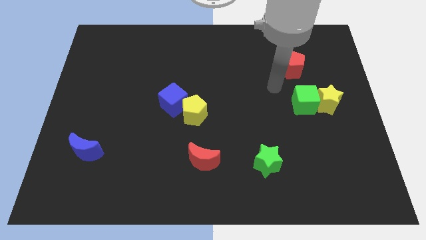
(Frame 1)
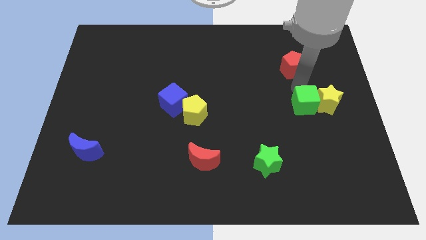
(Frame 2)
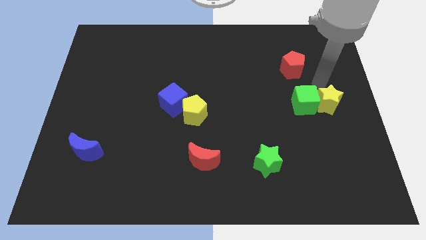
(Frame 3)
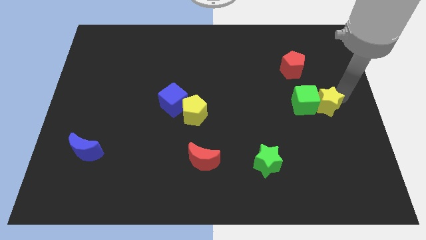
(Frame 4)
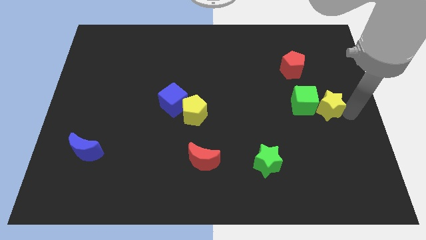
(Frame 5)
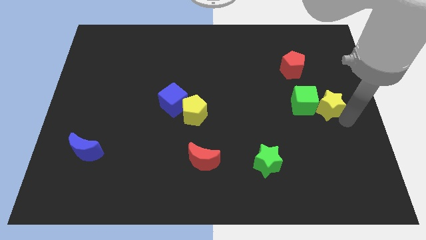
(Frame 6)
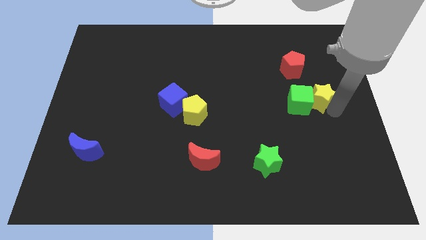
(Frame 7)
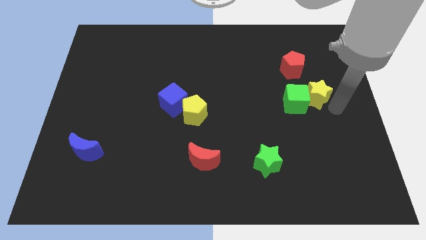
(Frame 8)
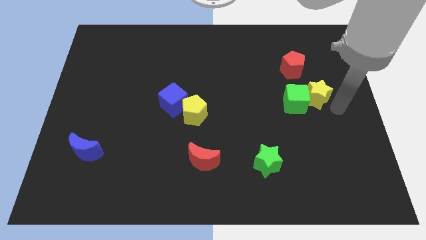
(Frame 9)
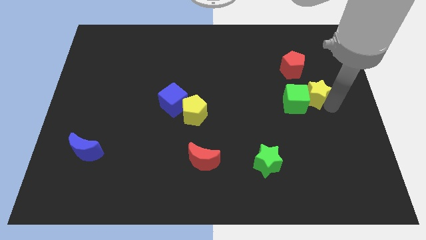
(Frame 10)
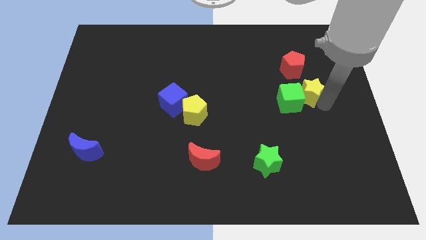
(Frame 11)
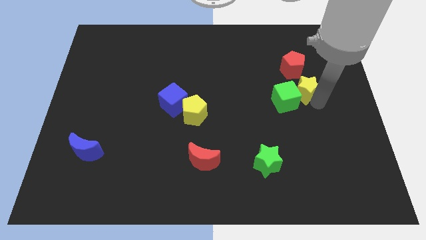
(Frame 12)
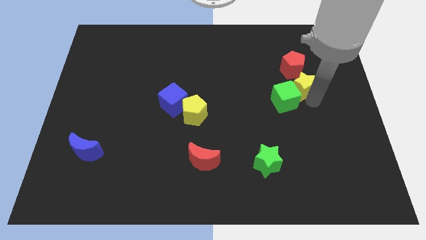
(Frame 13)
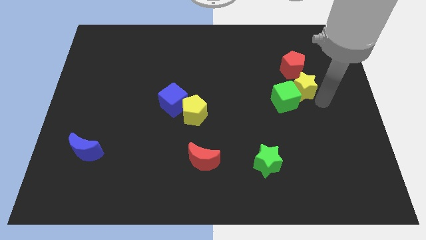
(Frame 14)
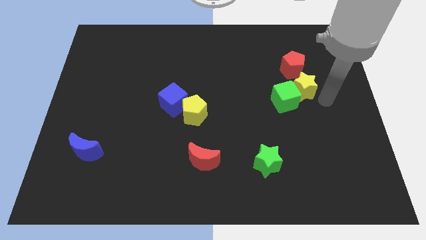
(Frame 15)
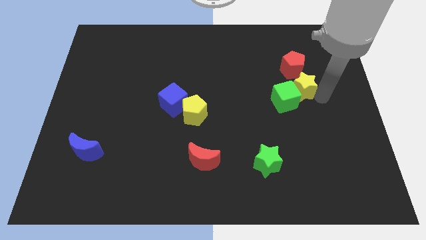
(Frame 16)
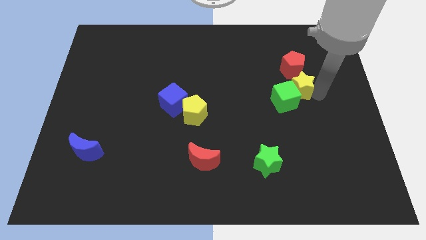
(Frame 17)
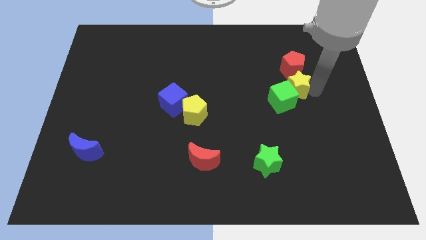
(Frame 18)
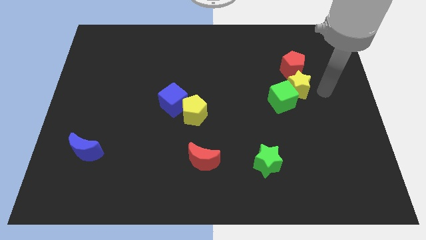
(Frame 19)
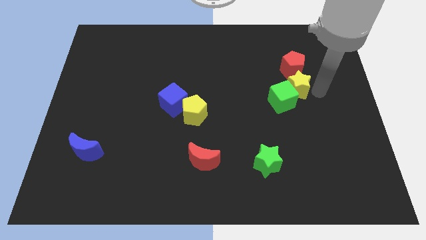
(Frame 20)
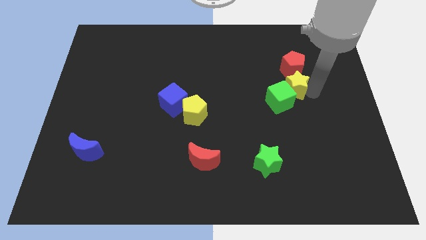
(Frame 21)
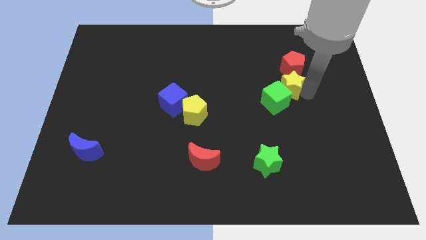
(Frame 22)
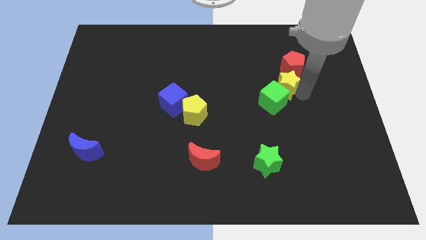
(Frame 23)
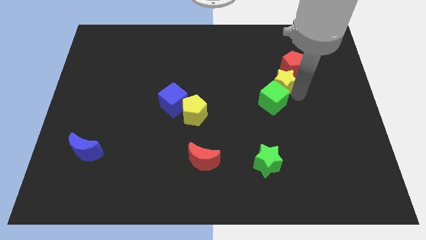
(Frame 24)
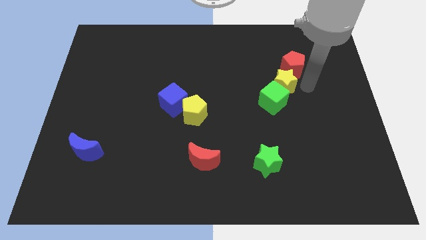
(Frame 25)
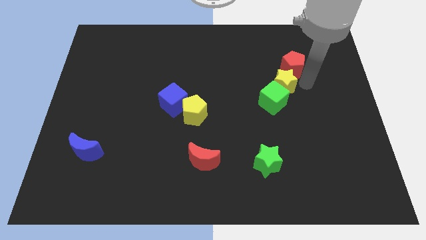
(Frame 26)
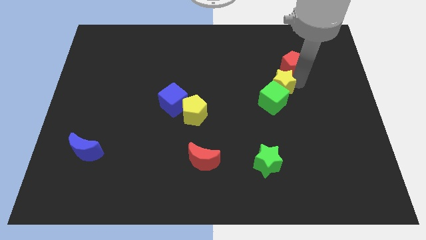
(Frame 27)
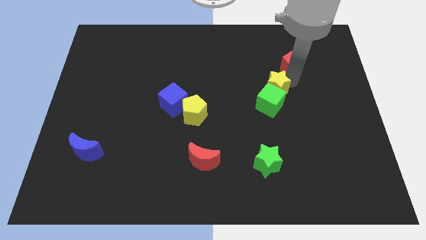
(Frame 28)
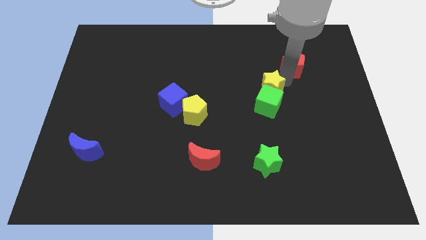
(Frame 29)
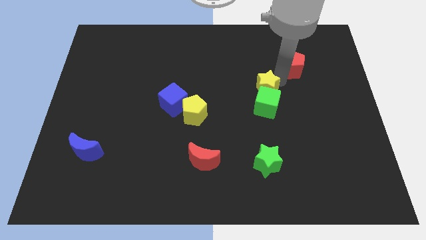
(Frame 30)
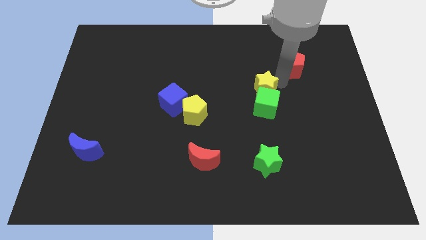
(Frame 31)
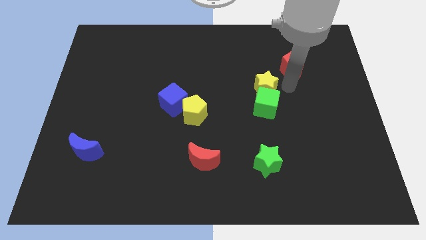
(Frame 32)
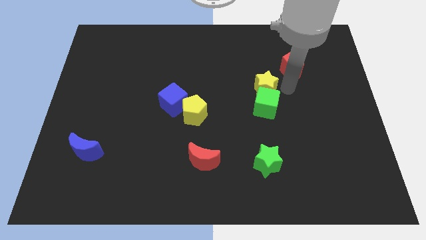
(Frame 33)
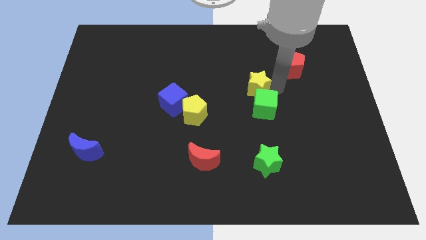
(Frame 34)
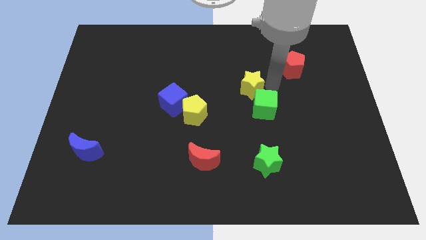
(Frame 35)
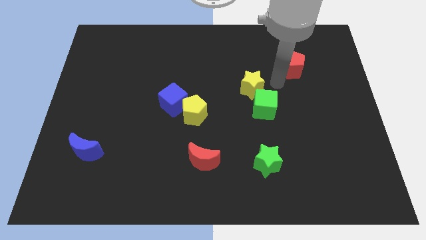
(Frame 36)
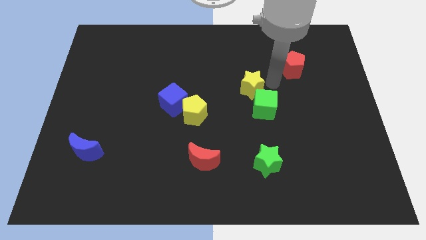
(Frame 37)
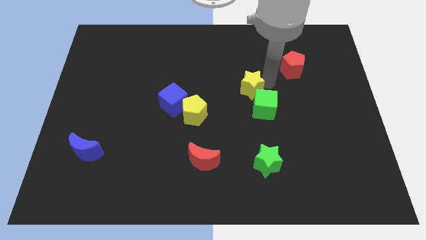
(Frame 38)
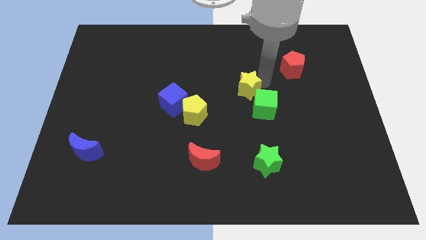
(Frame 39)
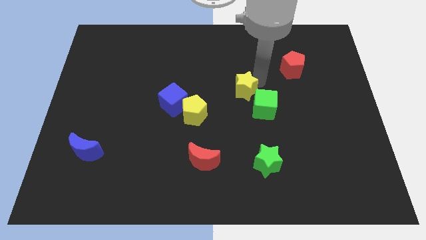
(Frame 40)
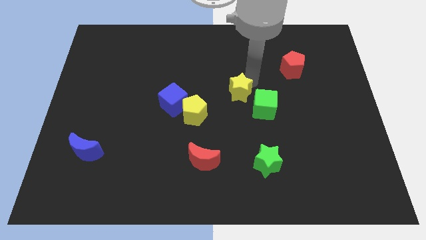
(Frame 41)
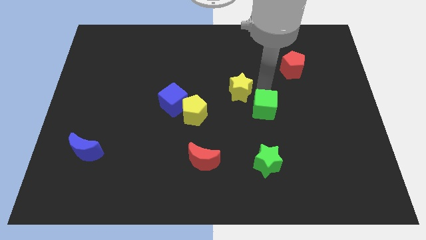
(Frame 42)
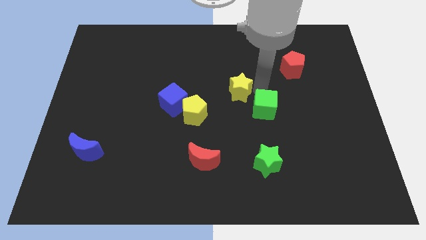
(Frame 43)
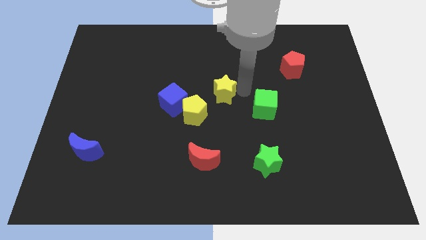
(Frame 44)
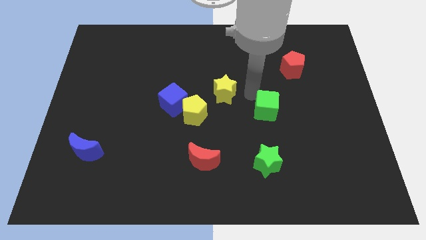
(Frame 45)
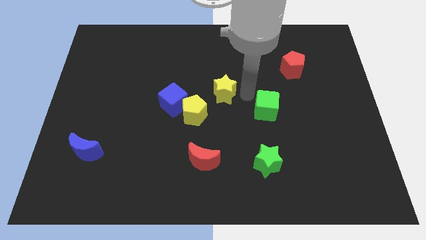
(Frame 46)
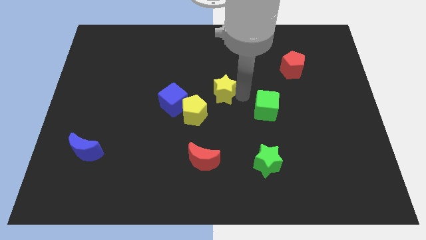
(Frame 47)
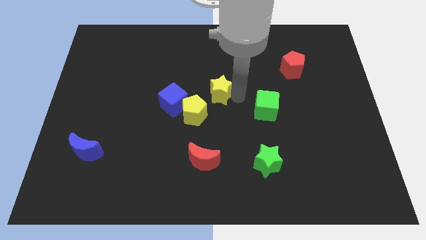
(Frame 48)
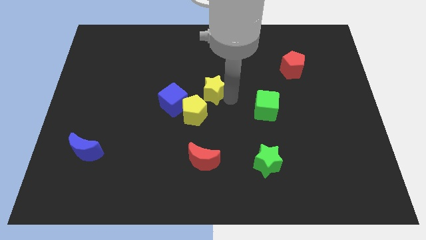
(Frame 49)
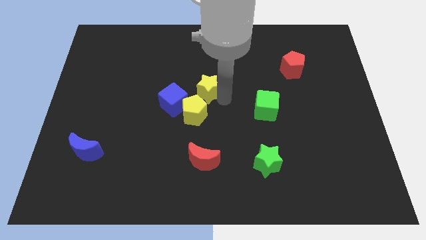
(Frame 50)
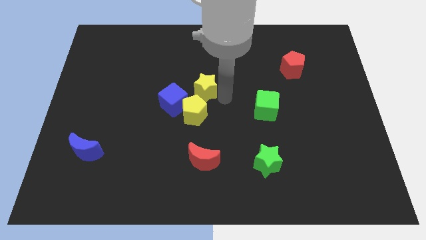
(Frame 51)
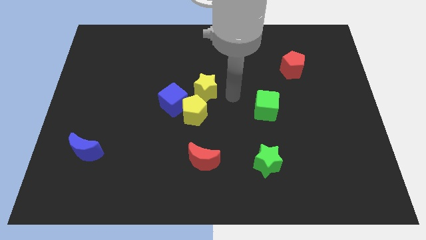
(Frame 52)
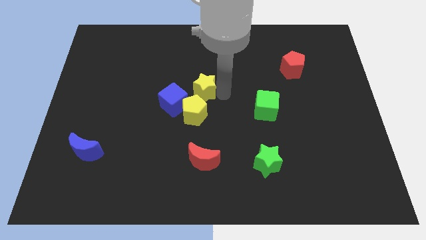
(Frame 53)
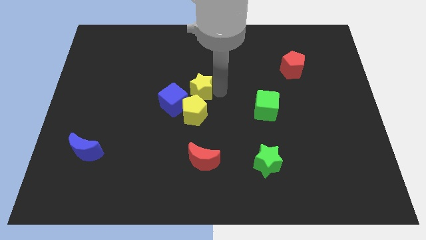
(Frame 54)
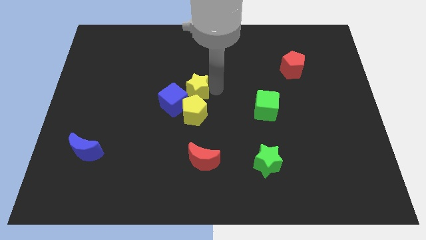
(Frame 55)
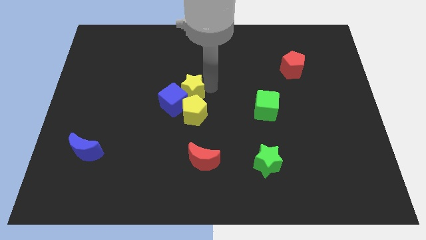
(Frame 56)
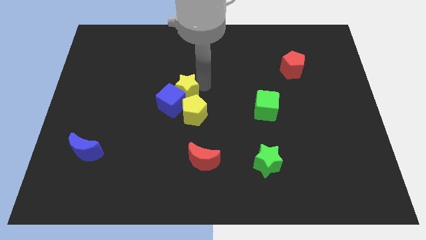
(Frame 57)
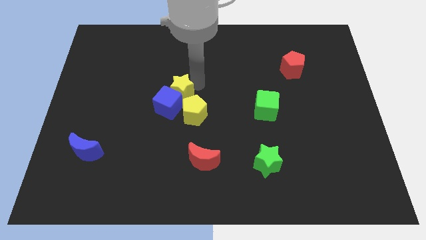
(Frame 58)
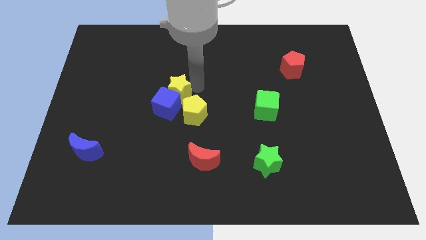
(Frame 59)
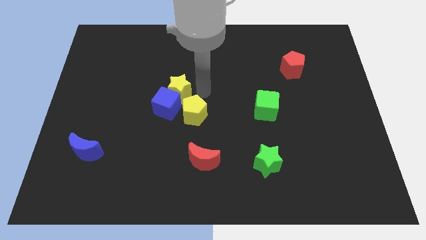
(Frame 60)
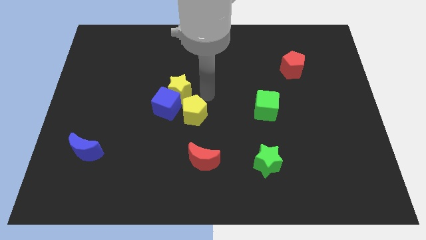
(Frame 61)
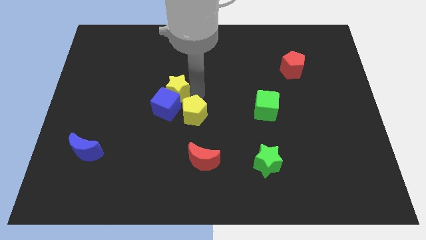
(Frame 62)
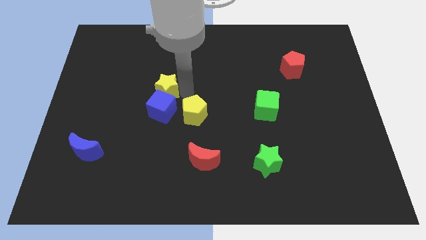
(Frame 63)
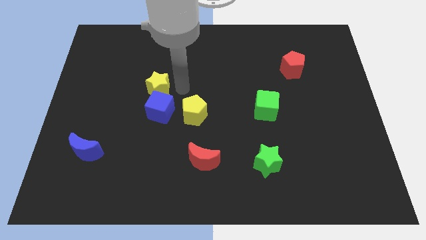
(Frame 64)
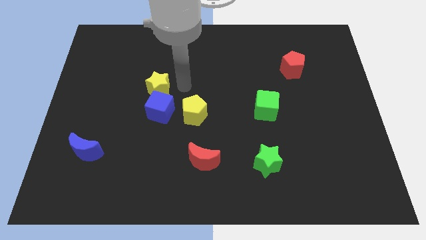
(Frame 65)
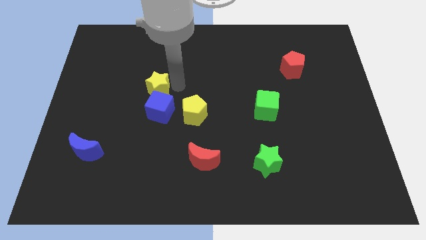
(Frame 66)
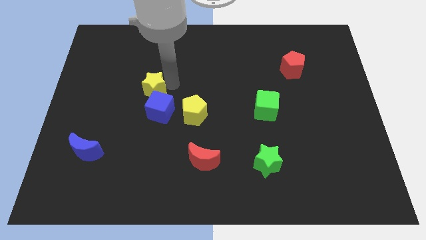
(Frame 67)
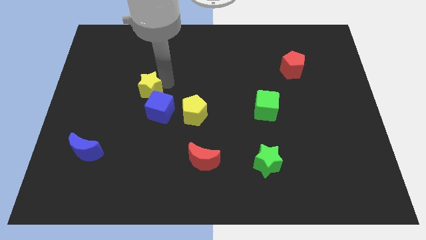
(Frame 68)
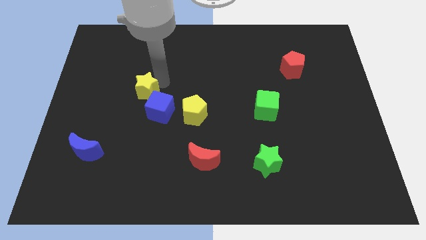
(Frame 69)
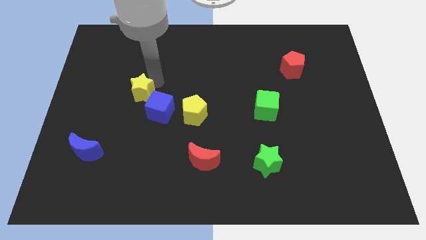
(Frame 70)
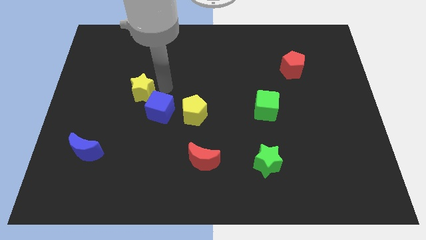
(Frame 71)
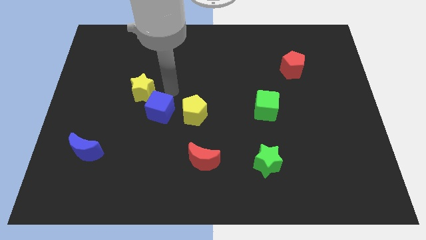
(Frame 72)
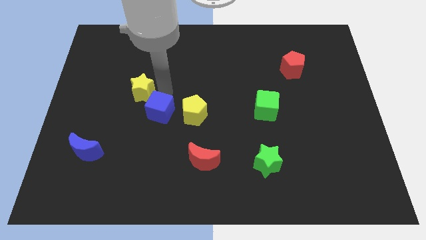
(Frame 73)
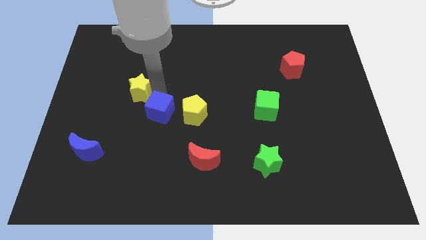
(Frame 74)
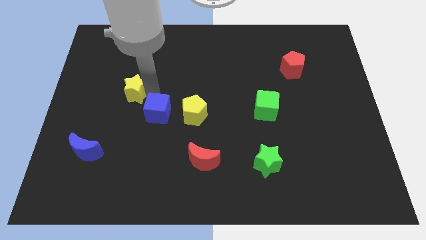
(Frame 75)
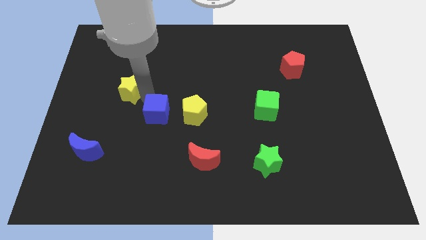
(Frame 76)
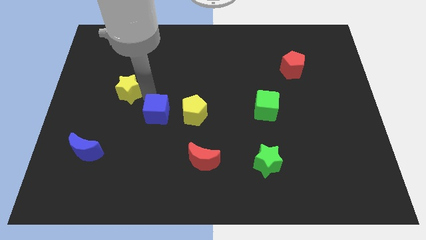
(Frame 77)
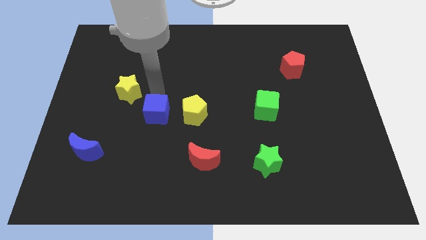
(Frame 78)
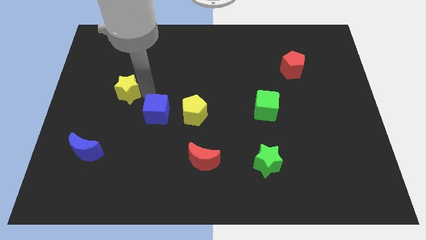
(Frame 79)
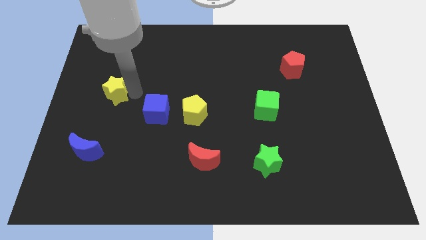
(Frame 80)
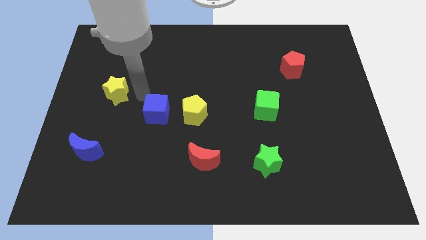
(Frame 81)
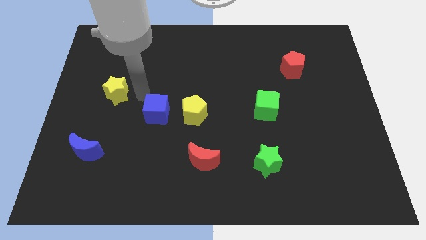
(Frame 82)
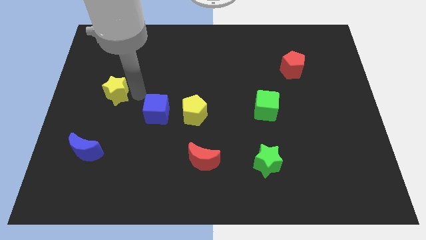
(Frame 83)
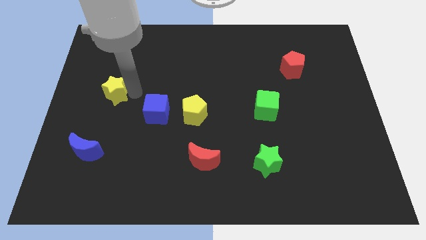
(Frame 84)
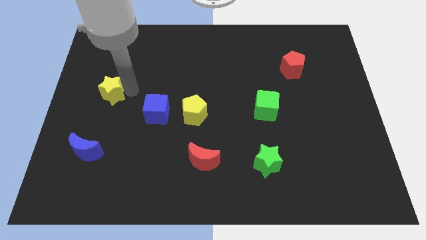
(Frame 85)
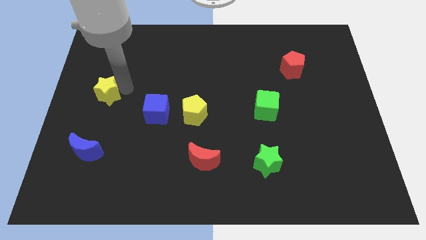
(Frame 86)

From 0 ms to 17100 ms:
push the yellow star to the left side
